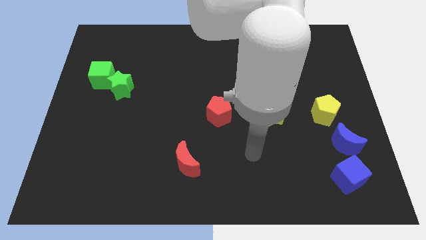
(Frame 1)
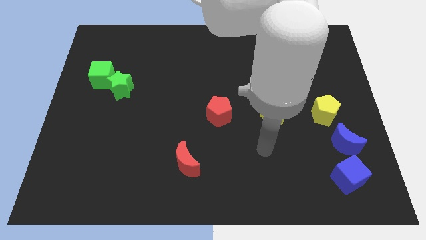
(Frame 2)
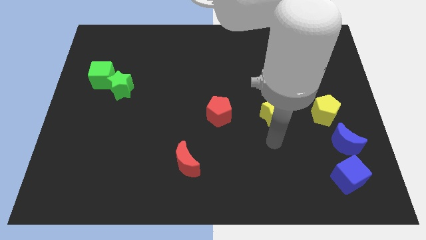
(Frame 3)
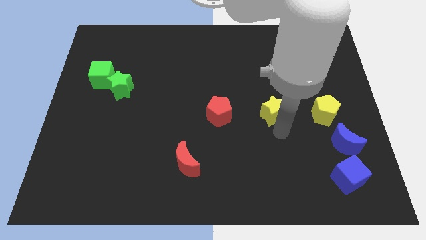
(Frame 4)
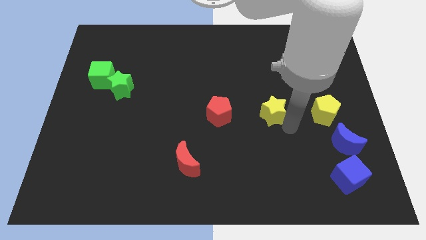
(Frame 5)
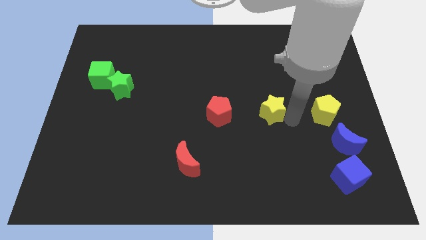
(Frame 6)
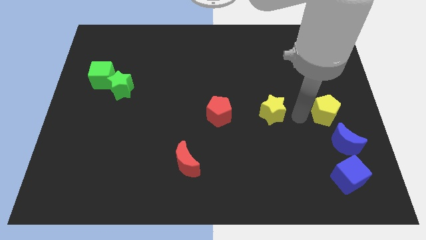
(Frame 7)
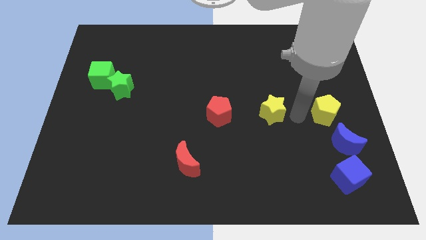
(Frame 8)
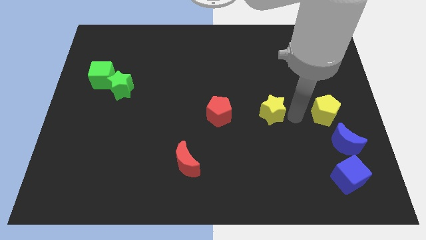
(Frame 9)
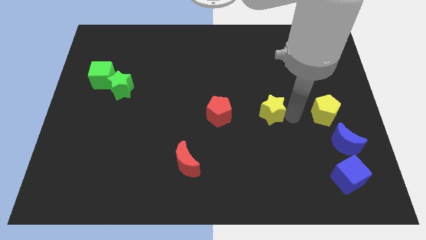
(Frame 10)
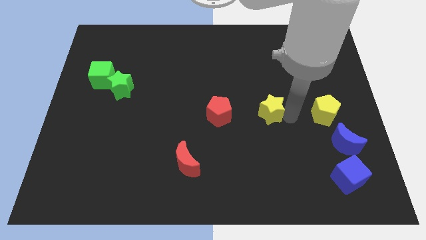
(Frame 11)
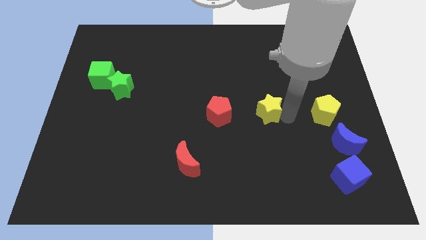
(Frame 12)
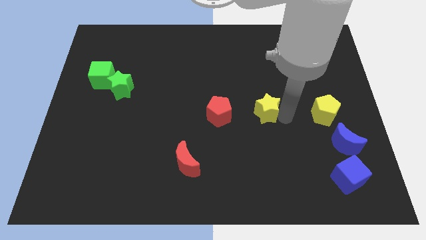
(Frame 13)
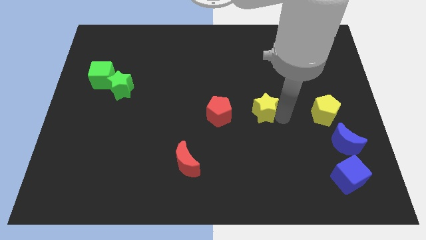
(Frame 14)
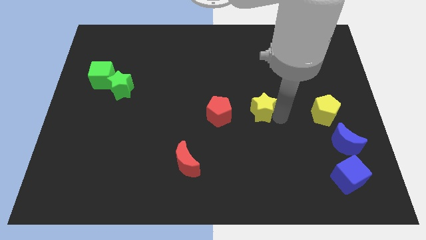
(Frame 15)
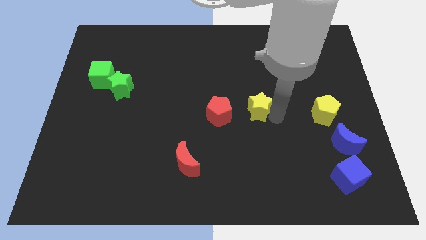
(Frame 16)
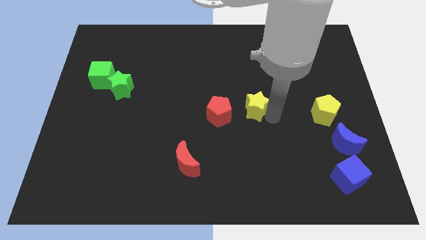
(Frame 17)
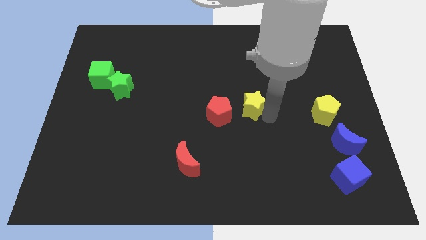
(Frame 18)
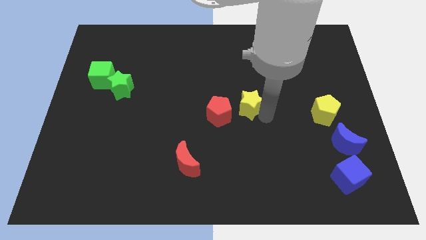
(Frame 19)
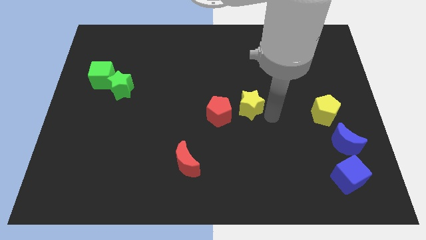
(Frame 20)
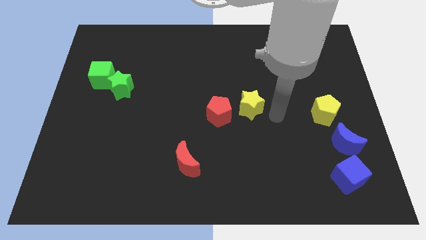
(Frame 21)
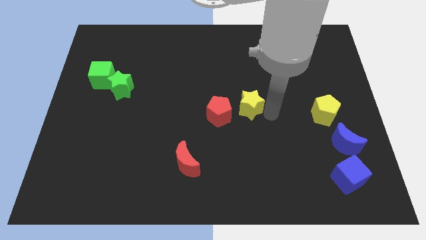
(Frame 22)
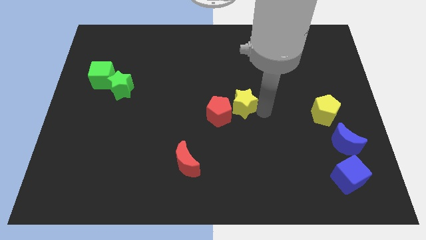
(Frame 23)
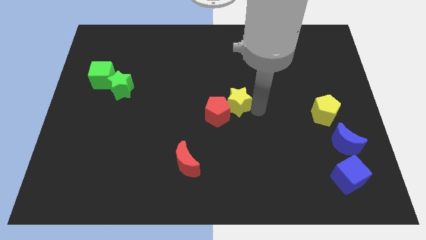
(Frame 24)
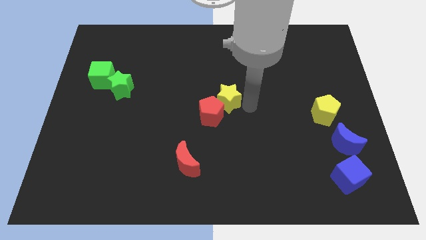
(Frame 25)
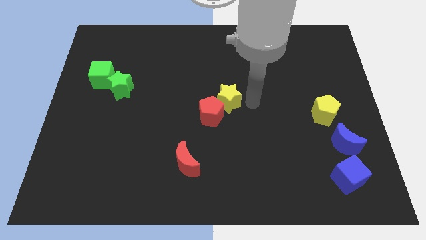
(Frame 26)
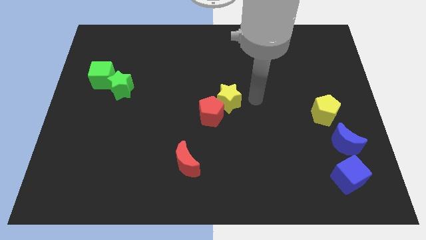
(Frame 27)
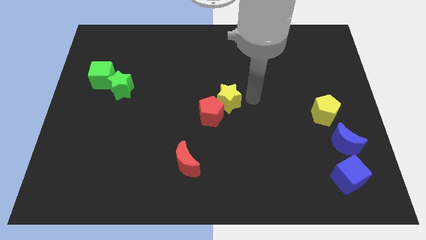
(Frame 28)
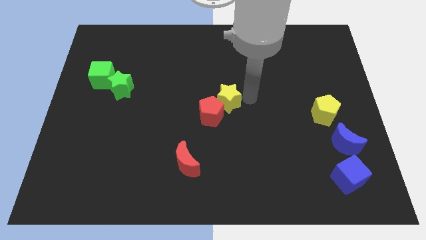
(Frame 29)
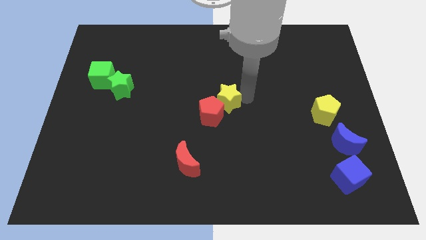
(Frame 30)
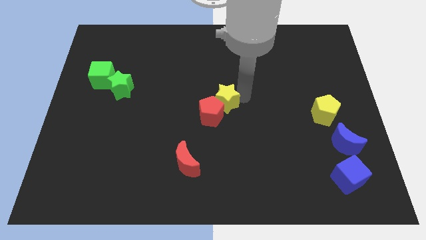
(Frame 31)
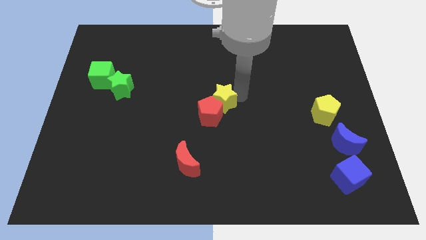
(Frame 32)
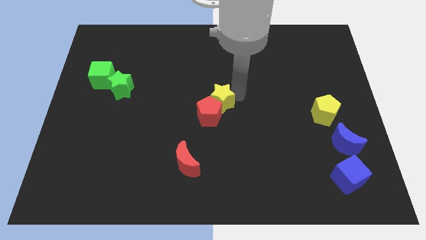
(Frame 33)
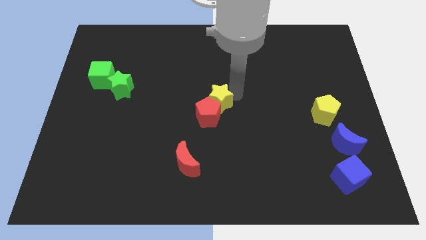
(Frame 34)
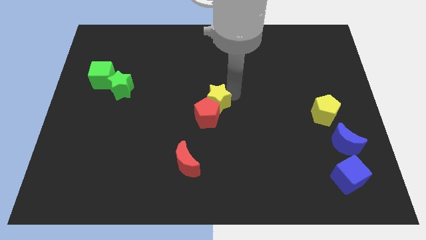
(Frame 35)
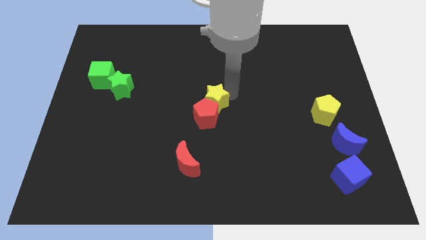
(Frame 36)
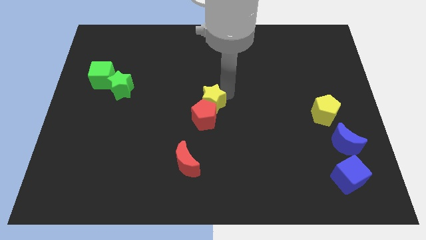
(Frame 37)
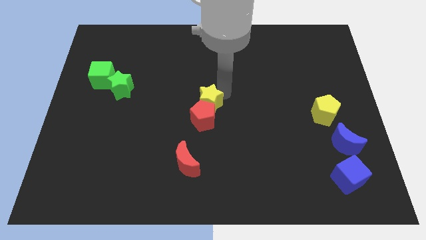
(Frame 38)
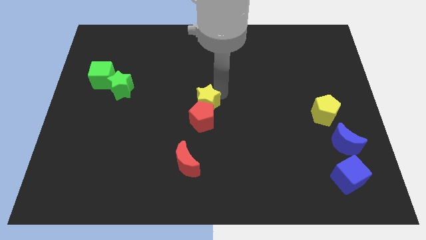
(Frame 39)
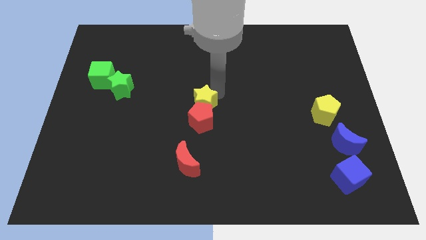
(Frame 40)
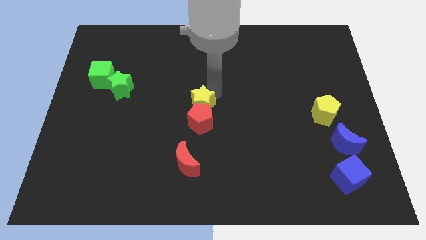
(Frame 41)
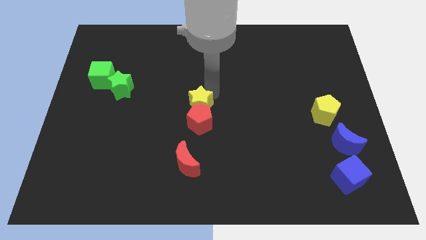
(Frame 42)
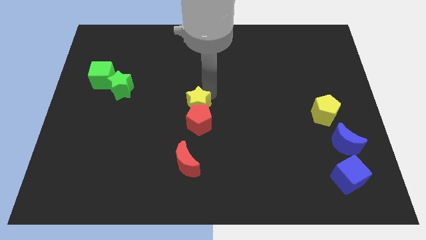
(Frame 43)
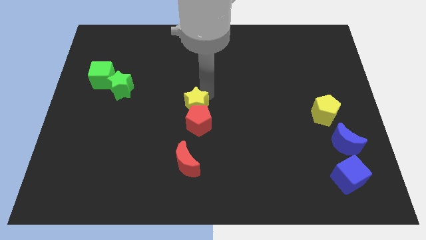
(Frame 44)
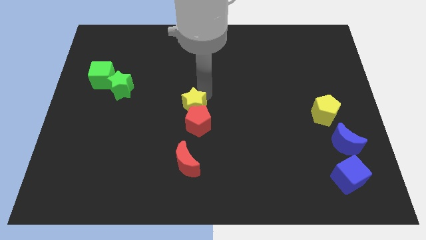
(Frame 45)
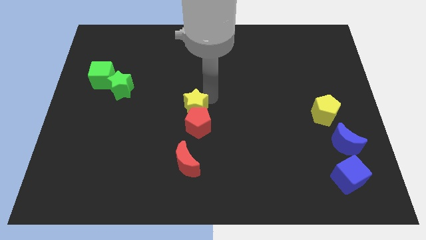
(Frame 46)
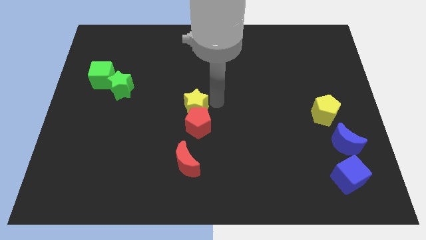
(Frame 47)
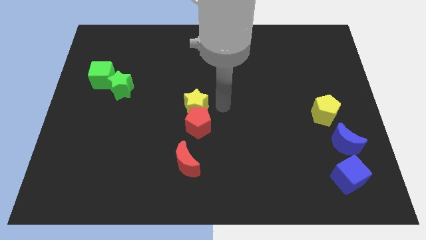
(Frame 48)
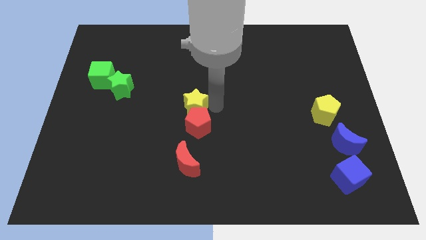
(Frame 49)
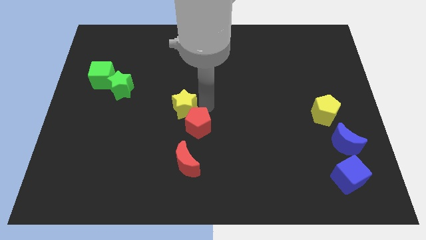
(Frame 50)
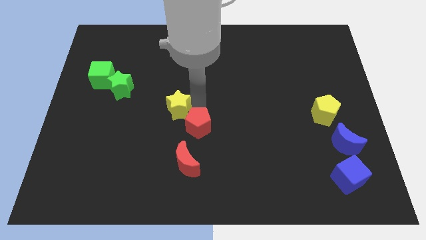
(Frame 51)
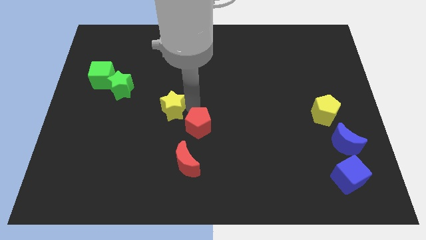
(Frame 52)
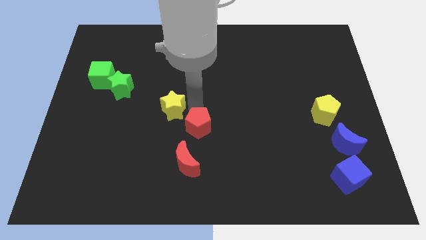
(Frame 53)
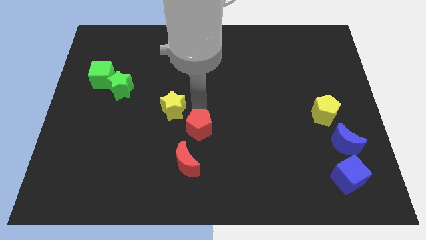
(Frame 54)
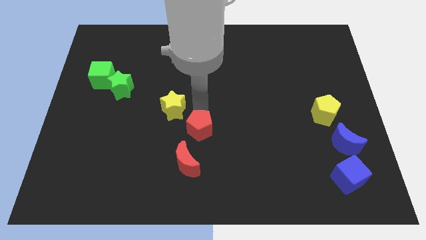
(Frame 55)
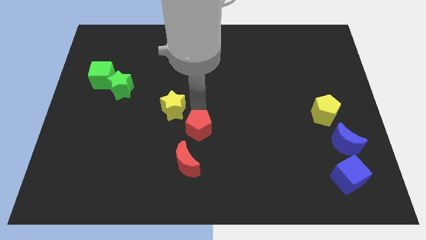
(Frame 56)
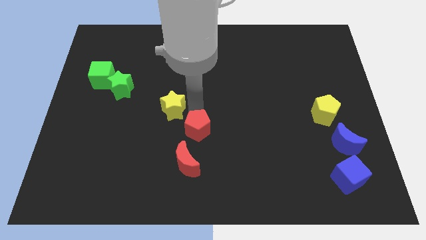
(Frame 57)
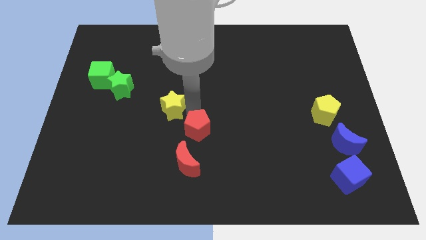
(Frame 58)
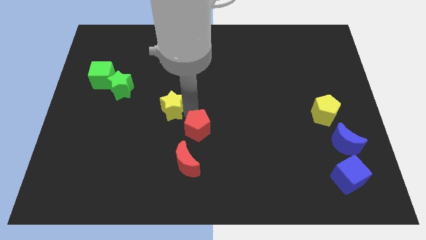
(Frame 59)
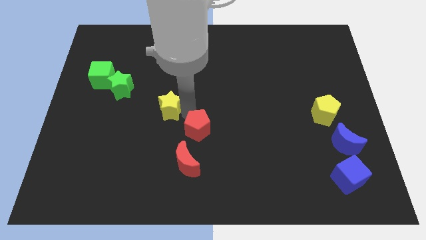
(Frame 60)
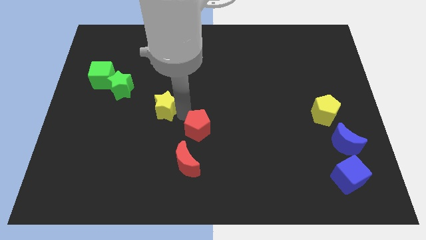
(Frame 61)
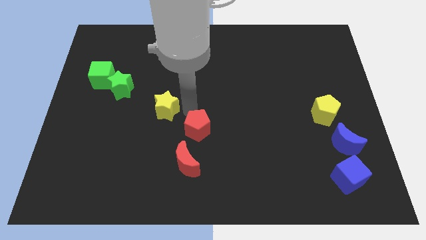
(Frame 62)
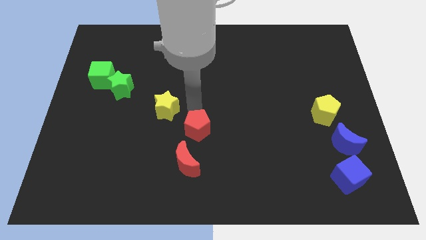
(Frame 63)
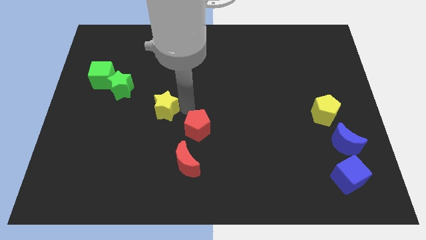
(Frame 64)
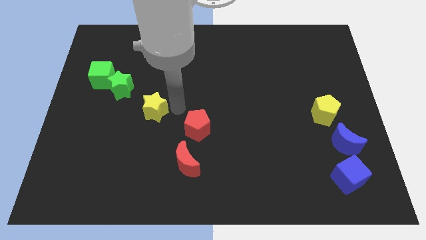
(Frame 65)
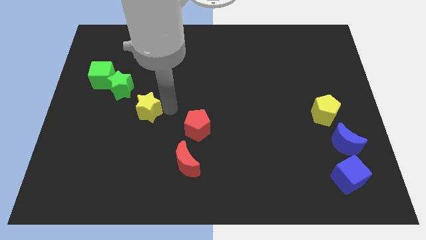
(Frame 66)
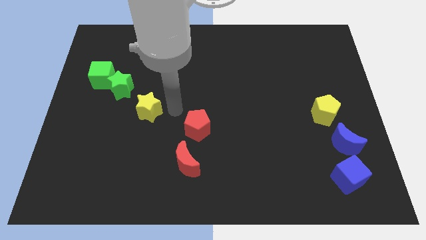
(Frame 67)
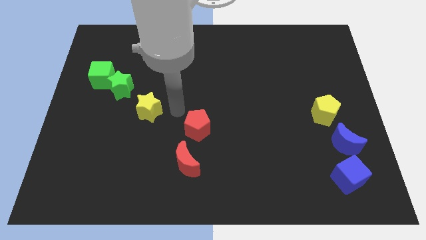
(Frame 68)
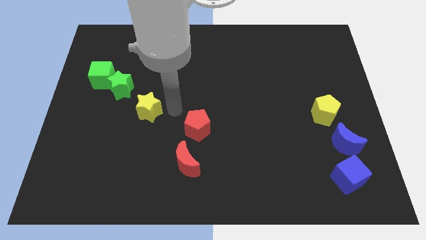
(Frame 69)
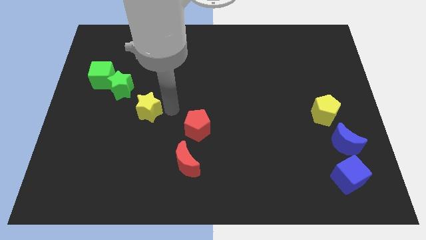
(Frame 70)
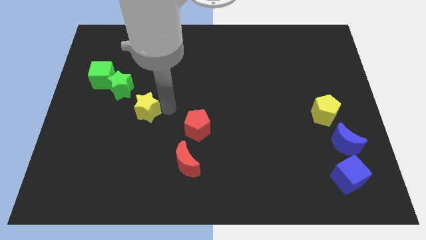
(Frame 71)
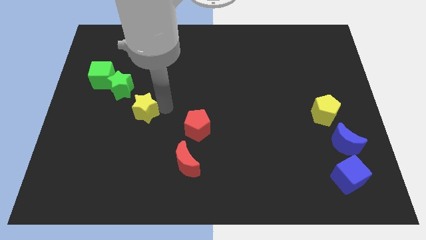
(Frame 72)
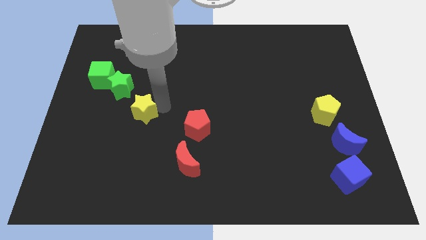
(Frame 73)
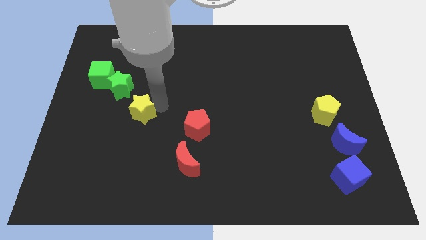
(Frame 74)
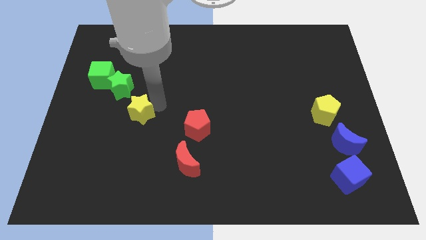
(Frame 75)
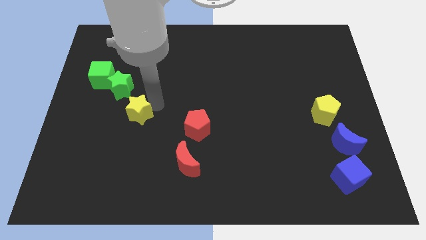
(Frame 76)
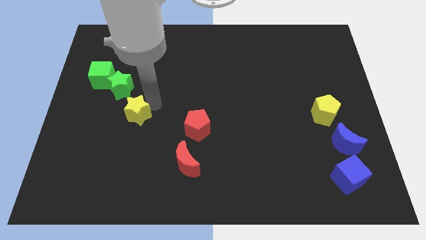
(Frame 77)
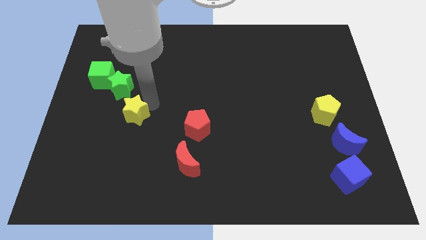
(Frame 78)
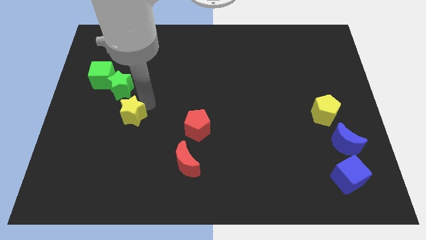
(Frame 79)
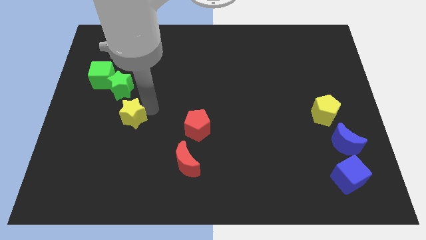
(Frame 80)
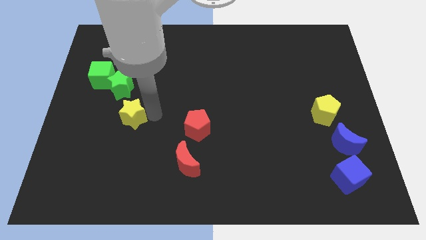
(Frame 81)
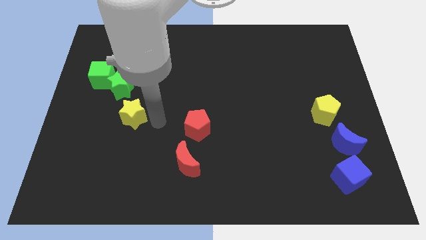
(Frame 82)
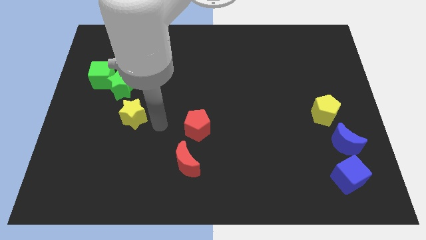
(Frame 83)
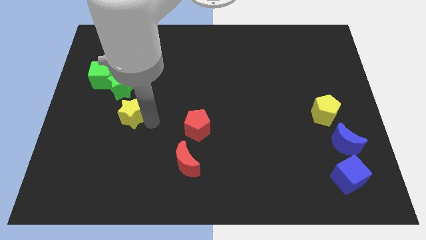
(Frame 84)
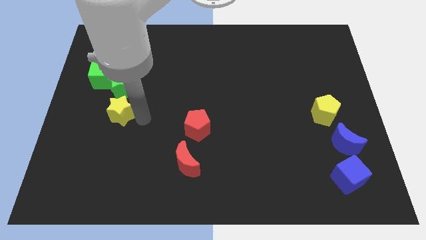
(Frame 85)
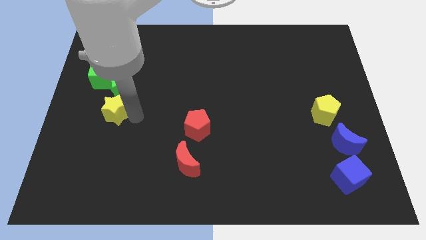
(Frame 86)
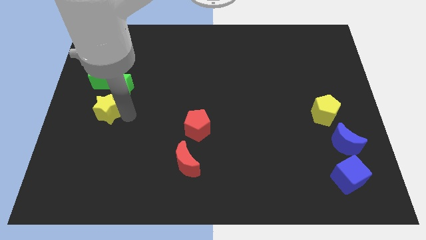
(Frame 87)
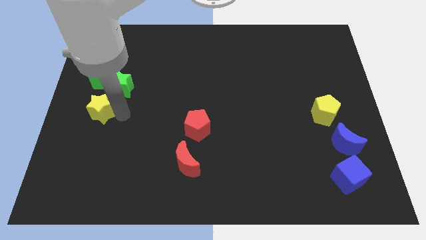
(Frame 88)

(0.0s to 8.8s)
slide the yellow star to the center left
